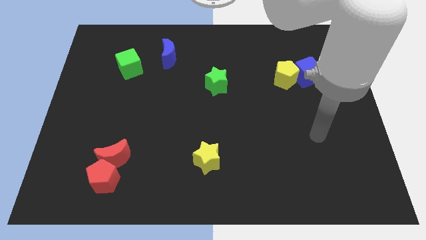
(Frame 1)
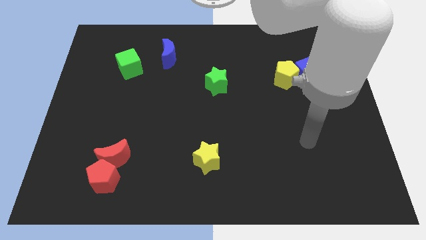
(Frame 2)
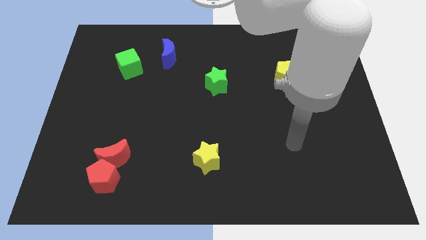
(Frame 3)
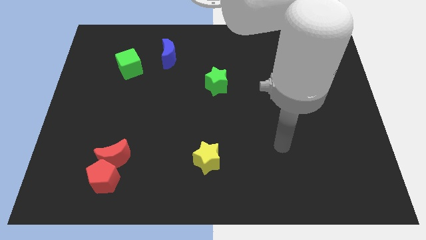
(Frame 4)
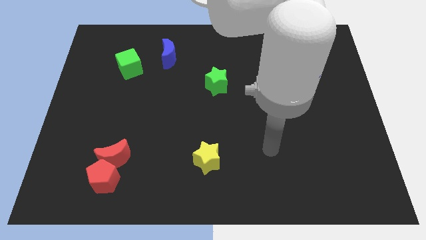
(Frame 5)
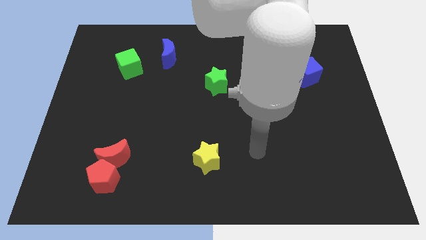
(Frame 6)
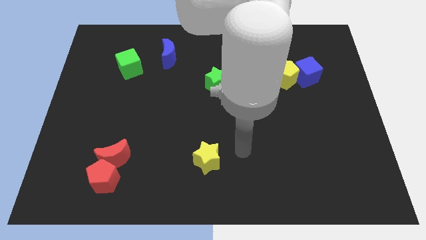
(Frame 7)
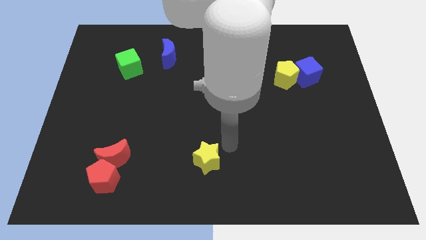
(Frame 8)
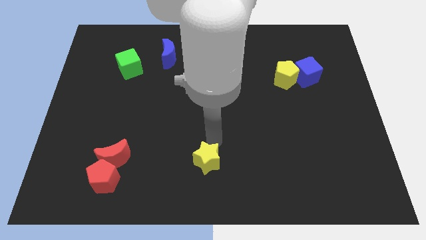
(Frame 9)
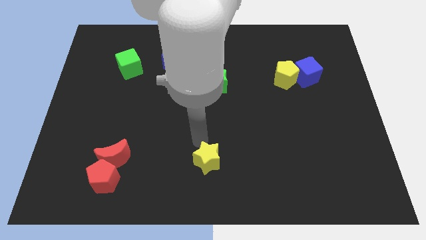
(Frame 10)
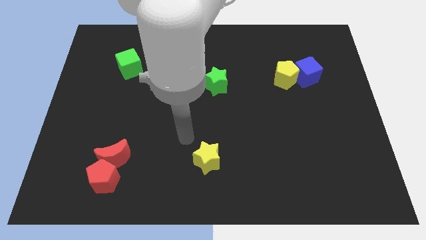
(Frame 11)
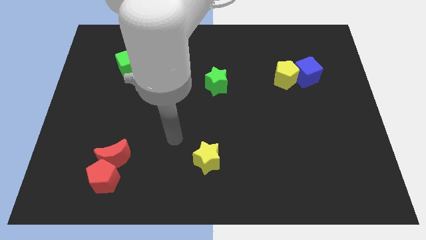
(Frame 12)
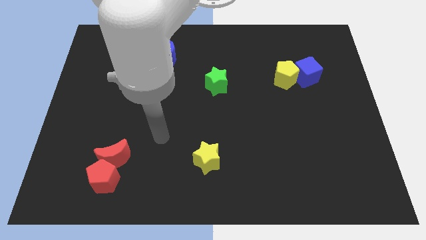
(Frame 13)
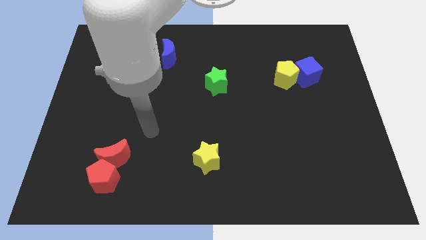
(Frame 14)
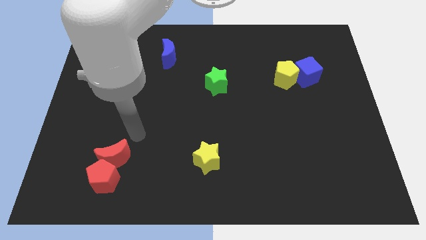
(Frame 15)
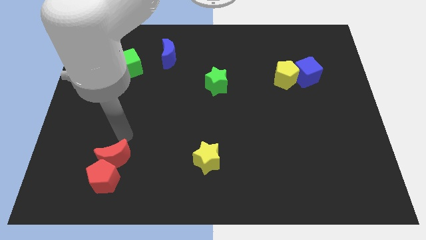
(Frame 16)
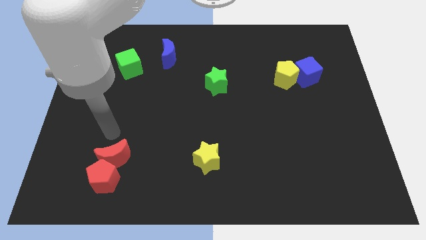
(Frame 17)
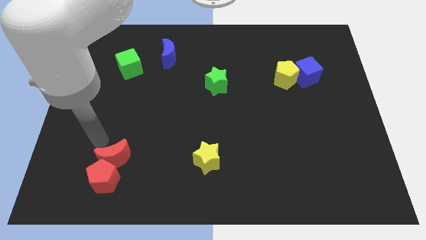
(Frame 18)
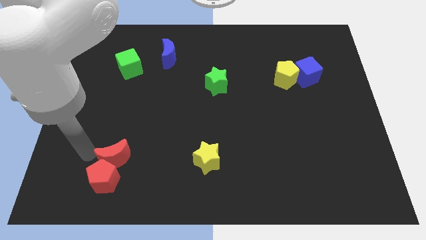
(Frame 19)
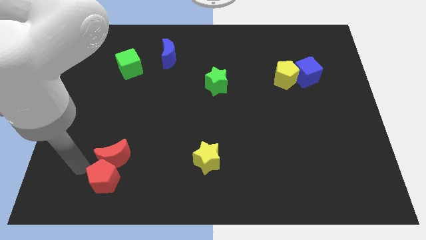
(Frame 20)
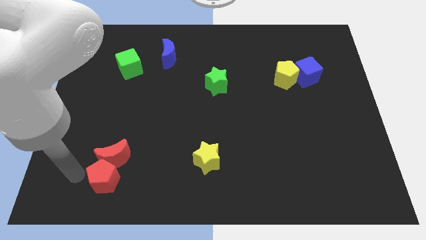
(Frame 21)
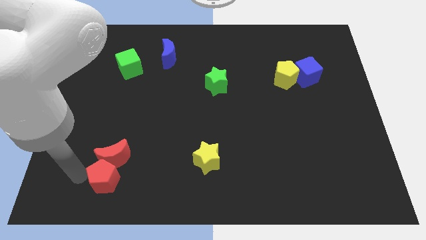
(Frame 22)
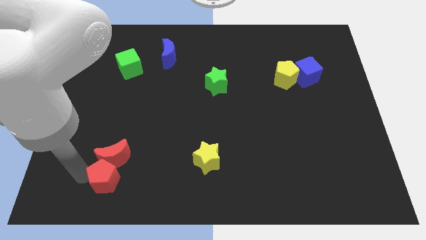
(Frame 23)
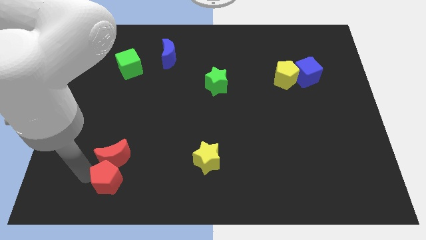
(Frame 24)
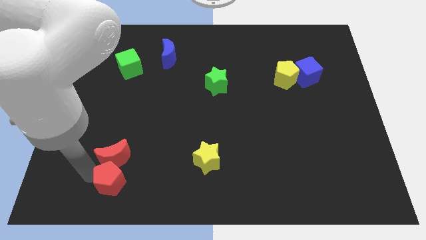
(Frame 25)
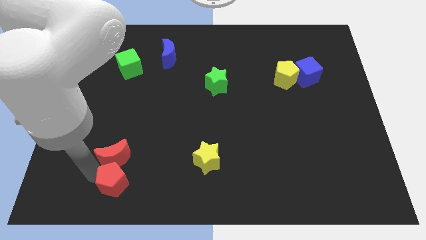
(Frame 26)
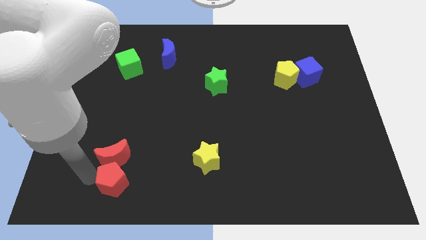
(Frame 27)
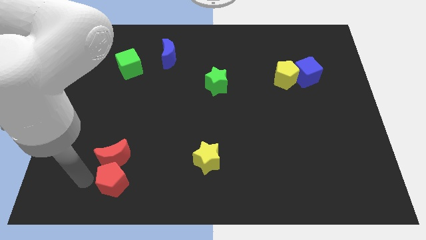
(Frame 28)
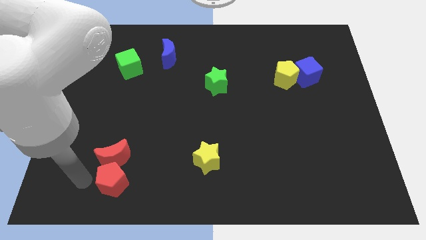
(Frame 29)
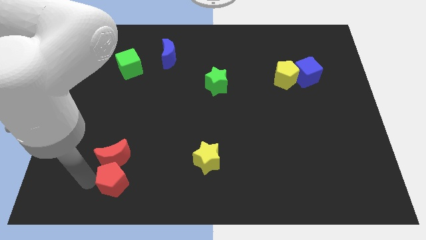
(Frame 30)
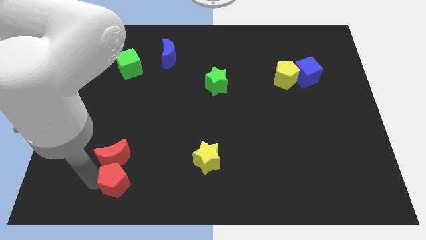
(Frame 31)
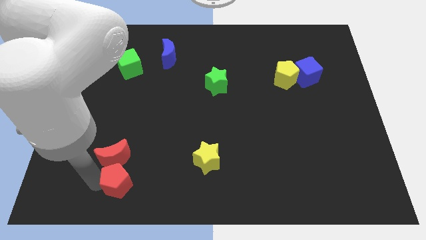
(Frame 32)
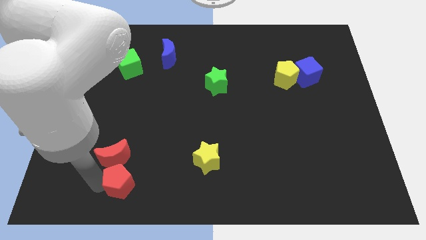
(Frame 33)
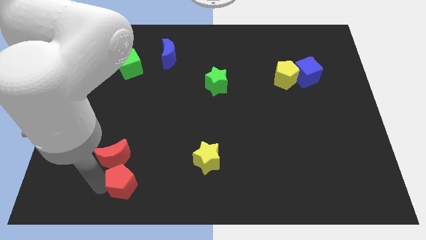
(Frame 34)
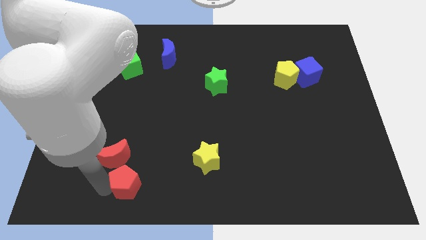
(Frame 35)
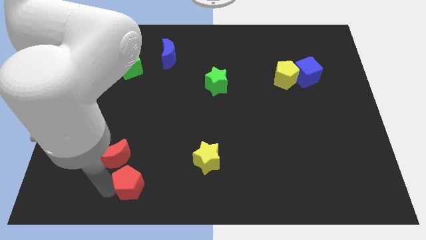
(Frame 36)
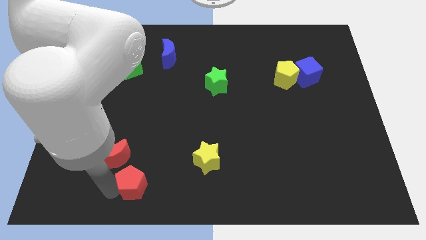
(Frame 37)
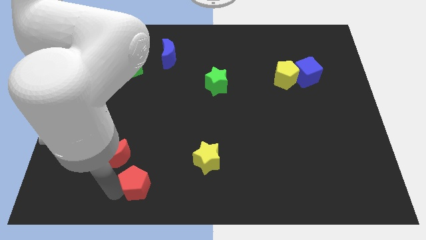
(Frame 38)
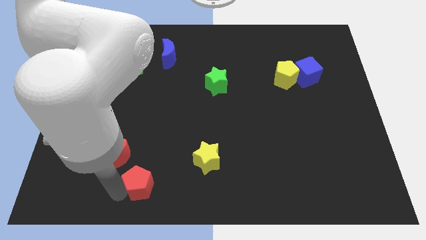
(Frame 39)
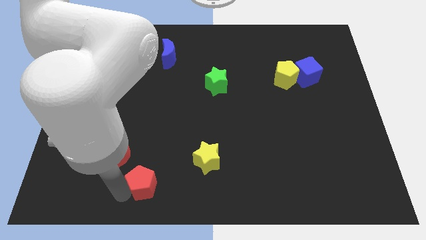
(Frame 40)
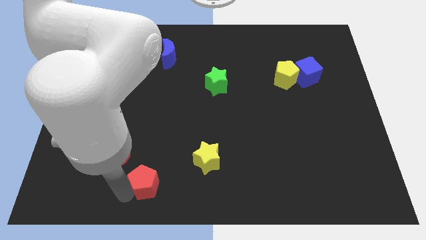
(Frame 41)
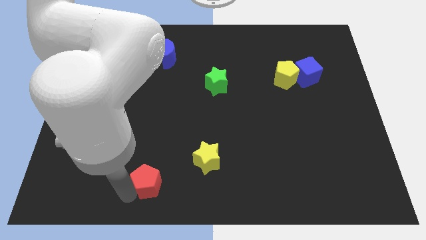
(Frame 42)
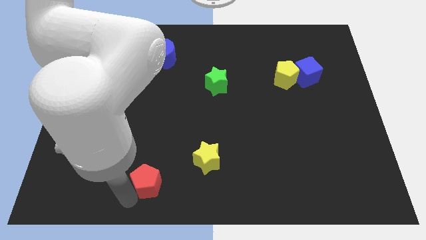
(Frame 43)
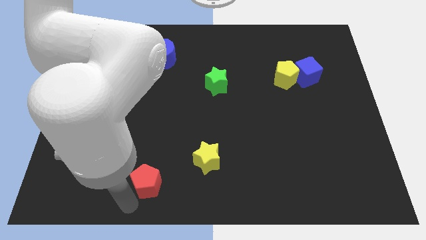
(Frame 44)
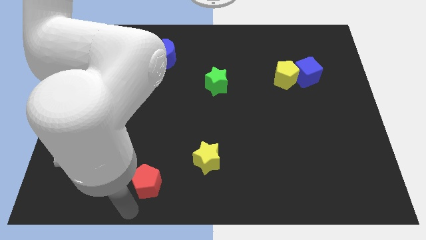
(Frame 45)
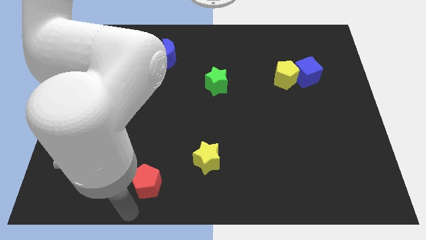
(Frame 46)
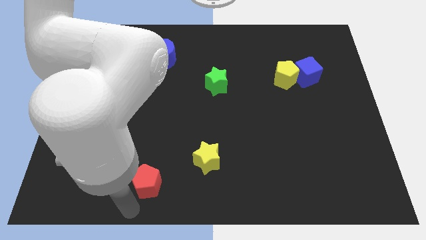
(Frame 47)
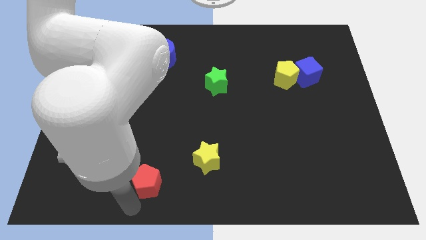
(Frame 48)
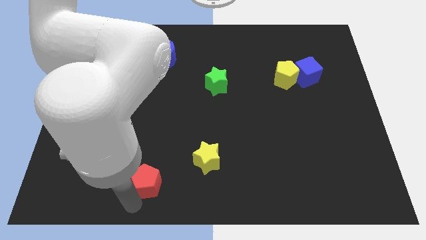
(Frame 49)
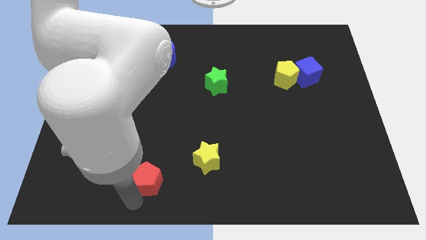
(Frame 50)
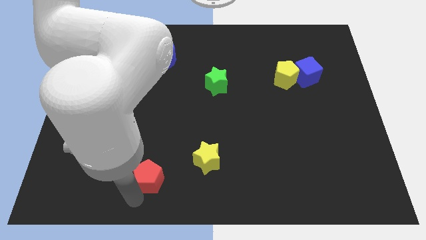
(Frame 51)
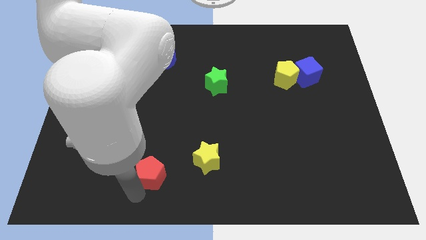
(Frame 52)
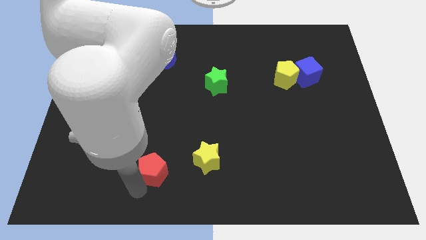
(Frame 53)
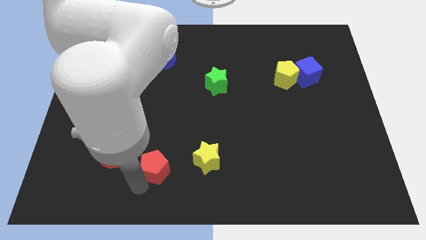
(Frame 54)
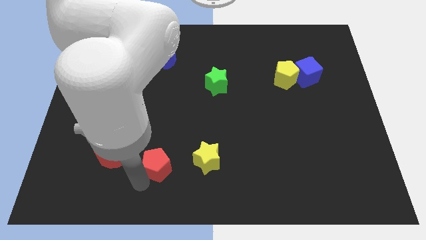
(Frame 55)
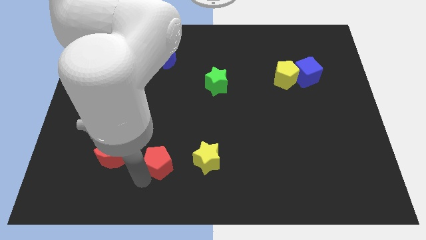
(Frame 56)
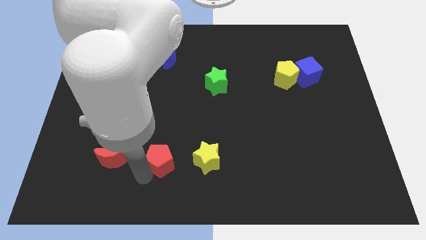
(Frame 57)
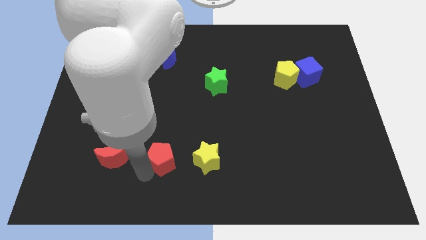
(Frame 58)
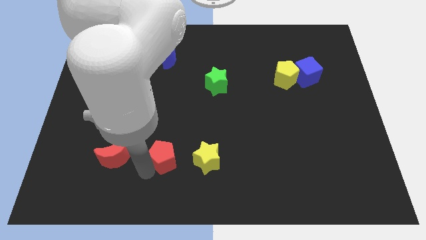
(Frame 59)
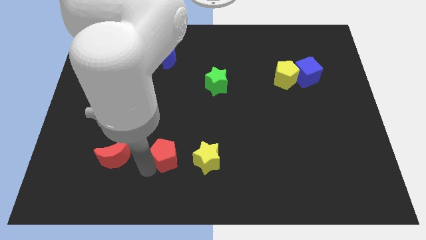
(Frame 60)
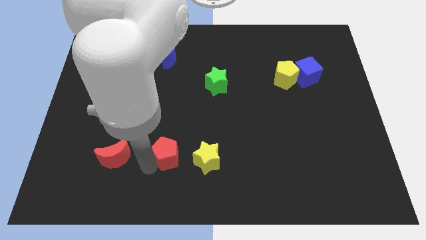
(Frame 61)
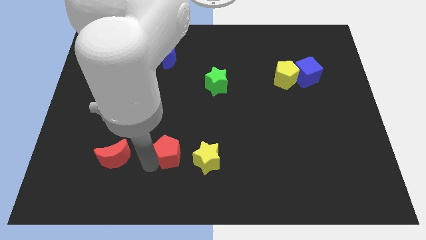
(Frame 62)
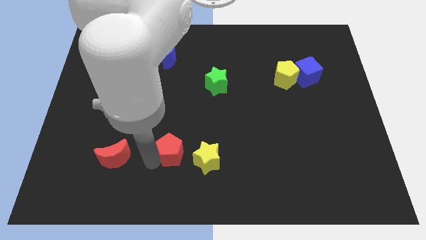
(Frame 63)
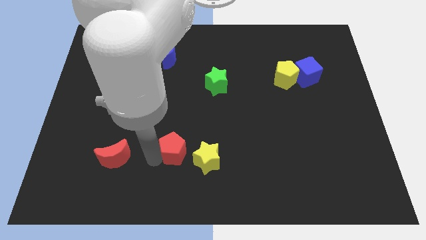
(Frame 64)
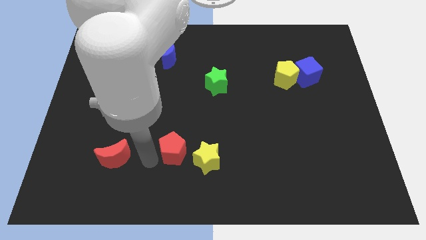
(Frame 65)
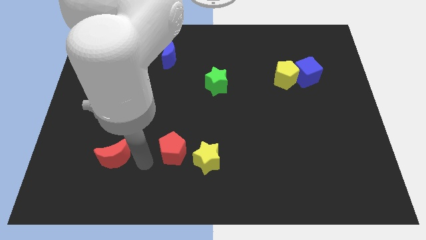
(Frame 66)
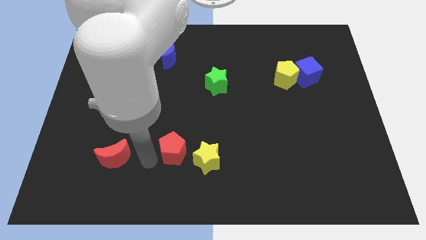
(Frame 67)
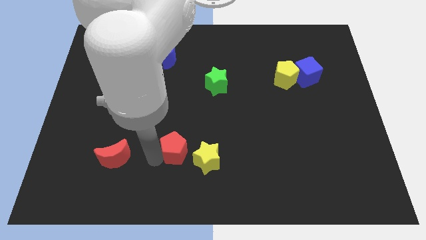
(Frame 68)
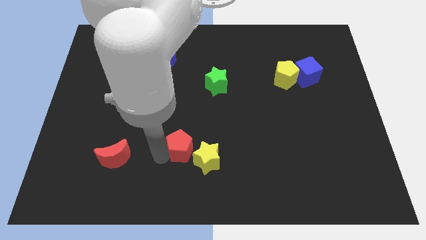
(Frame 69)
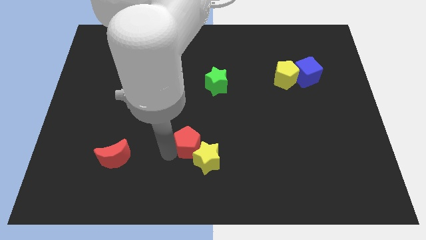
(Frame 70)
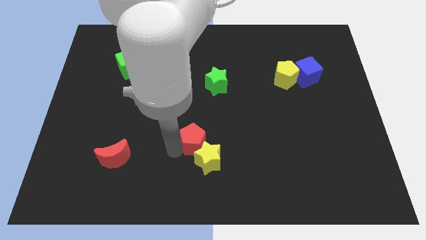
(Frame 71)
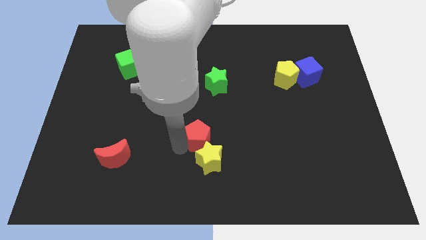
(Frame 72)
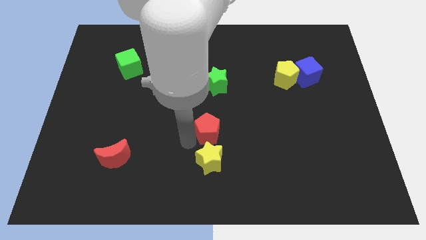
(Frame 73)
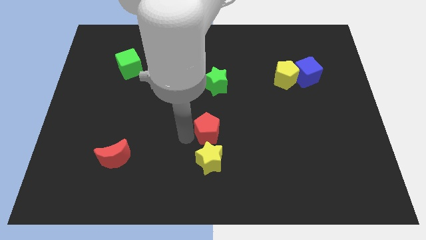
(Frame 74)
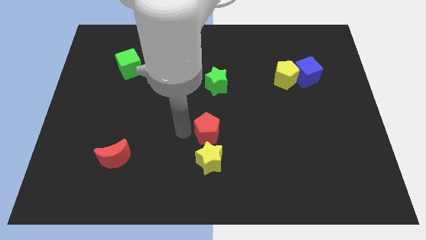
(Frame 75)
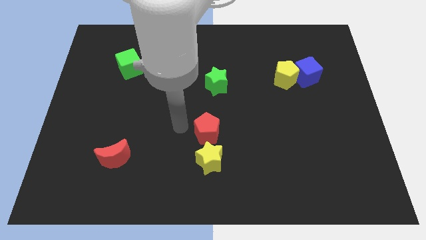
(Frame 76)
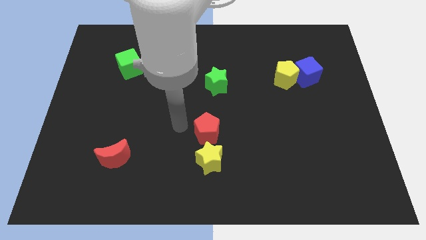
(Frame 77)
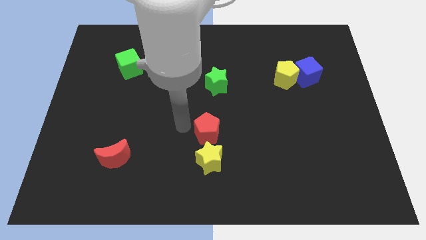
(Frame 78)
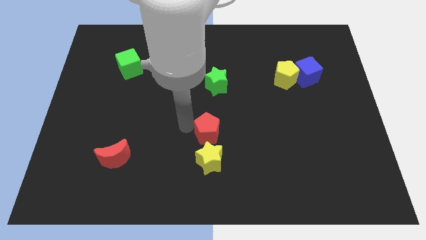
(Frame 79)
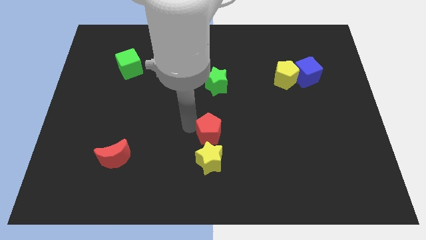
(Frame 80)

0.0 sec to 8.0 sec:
slide the red pentagon diagonally up and to the right of the yellow star
